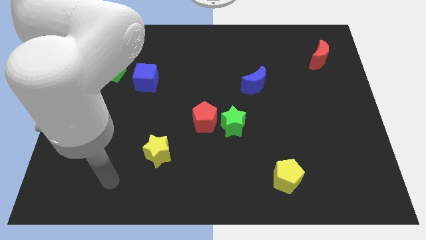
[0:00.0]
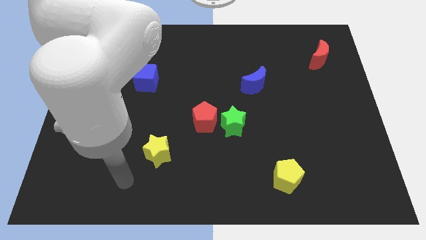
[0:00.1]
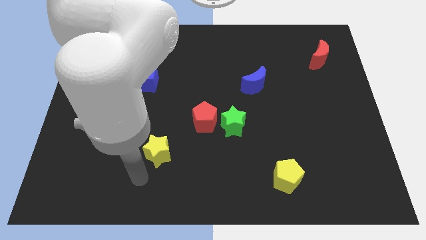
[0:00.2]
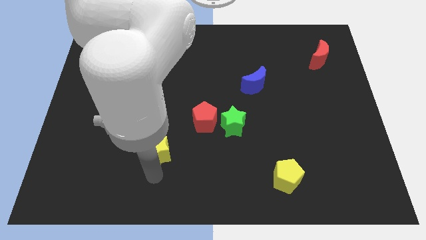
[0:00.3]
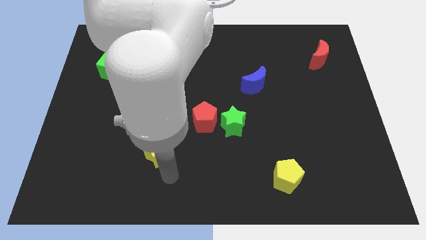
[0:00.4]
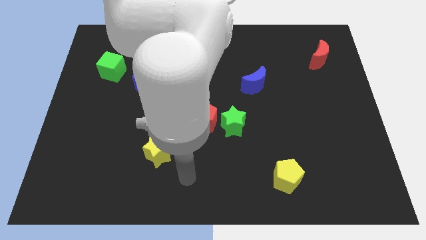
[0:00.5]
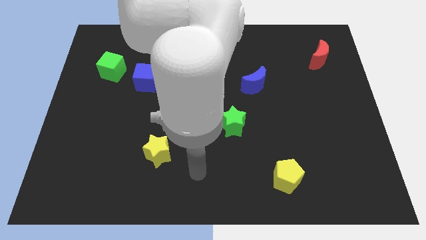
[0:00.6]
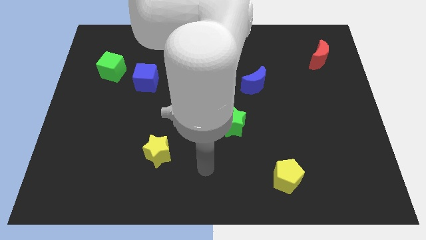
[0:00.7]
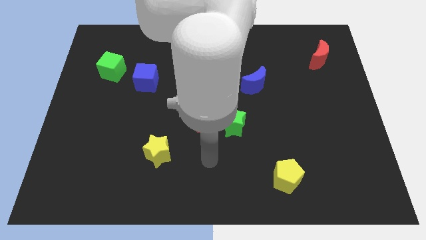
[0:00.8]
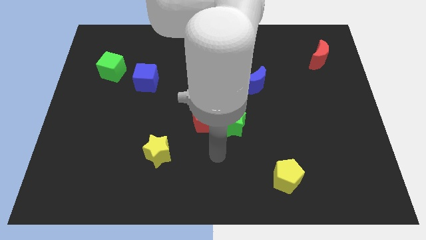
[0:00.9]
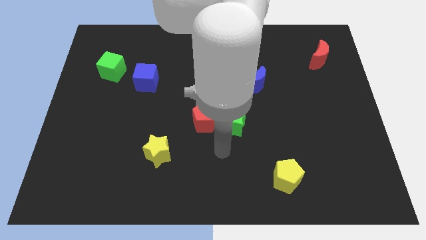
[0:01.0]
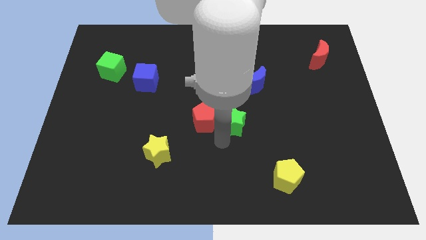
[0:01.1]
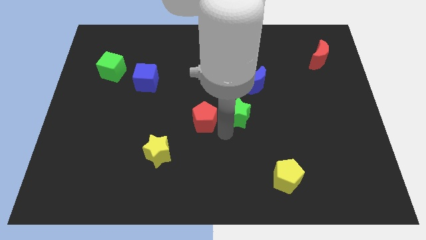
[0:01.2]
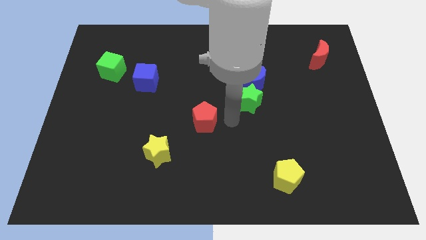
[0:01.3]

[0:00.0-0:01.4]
pull the red pentagon apart from the green star

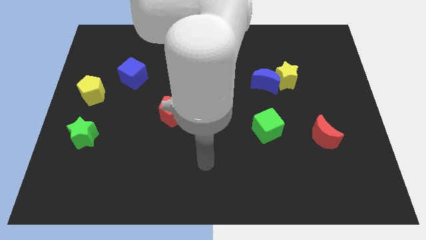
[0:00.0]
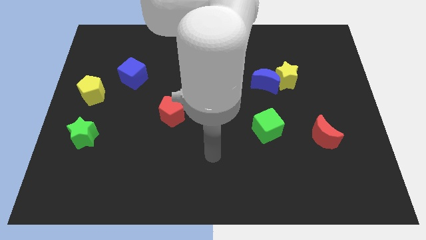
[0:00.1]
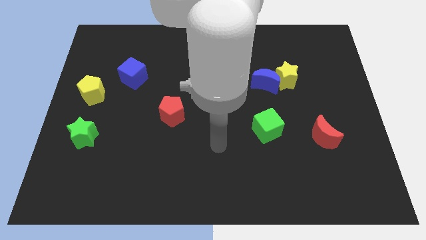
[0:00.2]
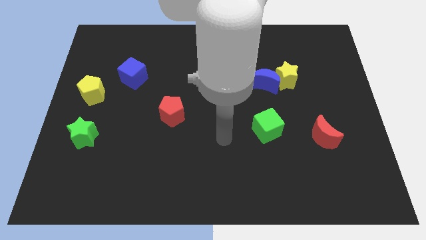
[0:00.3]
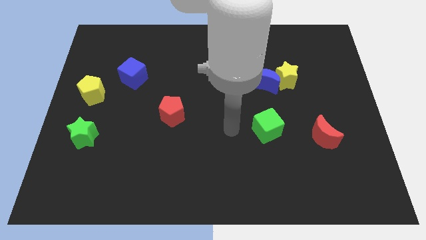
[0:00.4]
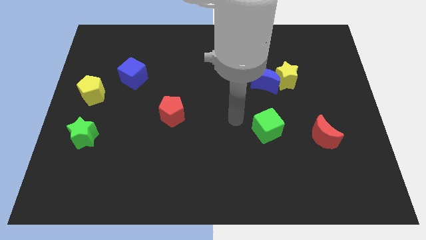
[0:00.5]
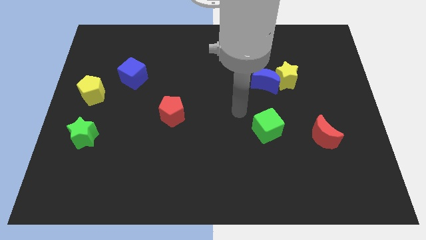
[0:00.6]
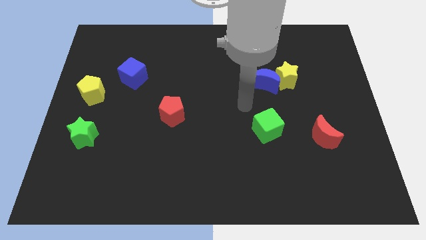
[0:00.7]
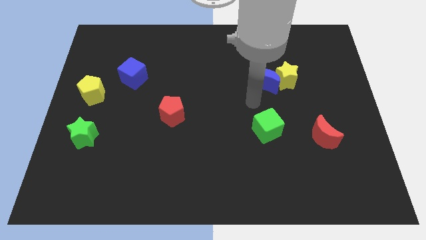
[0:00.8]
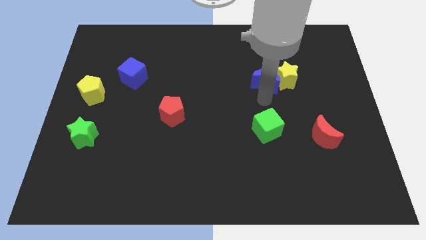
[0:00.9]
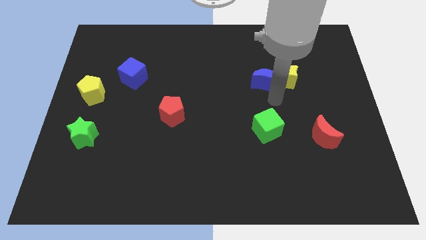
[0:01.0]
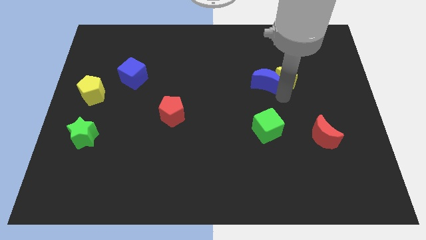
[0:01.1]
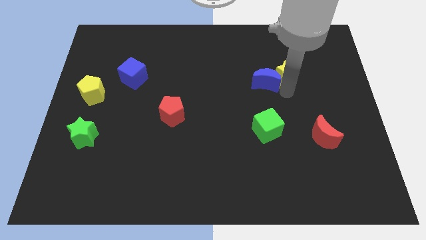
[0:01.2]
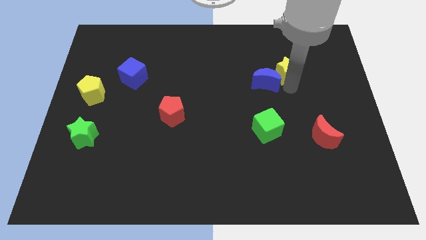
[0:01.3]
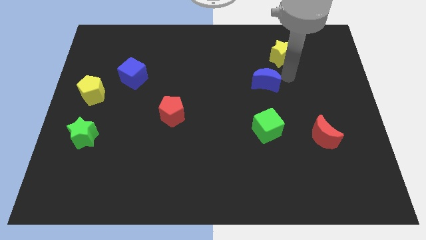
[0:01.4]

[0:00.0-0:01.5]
pull the blue moon apart from the yellow star

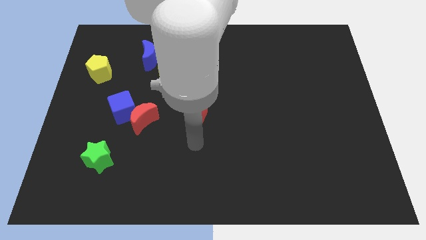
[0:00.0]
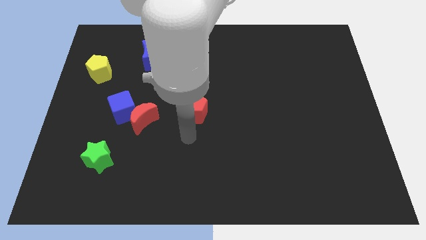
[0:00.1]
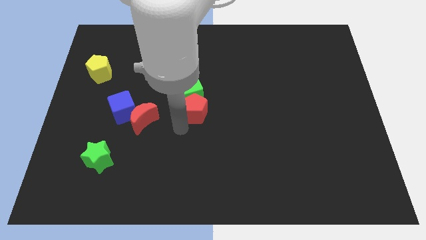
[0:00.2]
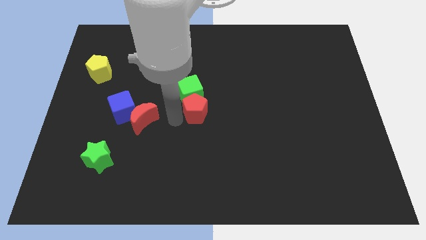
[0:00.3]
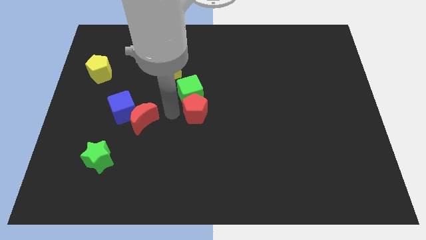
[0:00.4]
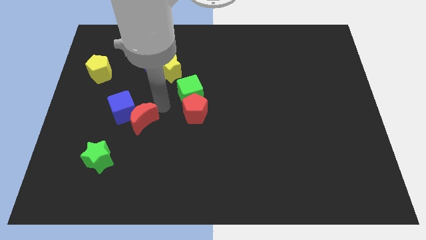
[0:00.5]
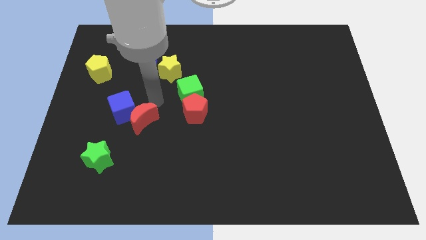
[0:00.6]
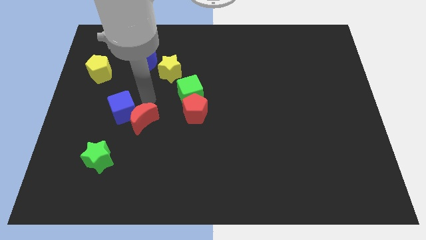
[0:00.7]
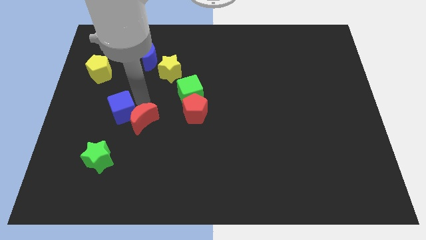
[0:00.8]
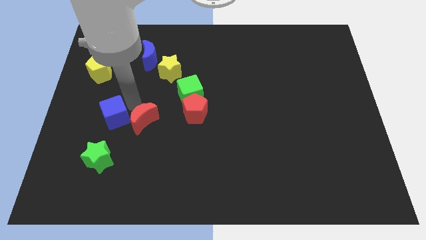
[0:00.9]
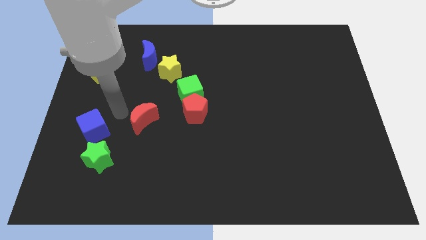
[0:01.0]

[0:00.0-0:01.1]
move the red moon away from the blue cube

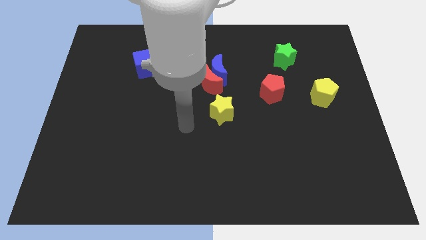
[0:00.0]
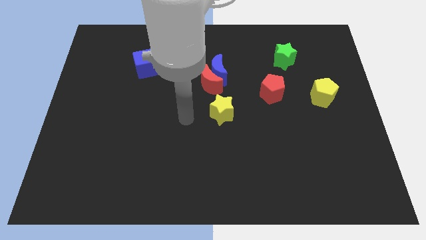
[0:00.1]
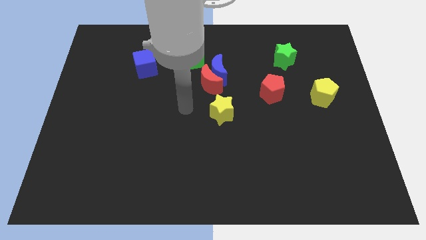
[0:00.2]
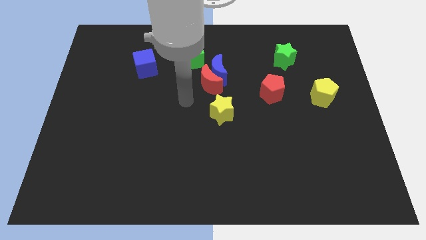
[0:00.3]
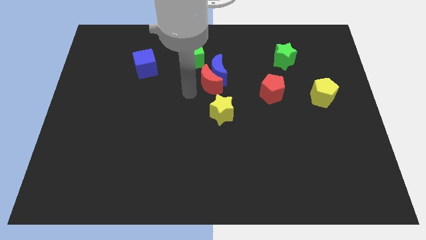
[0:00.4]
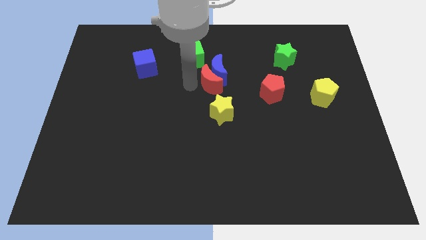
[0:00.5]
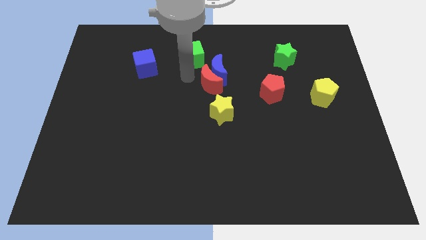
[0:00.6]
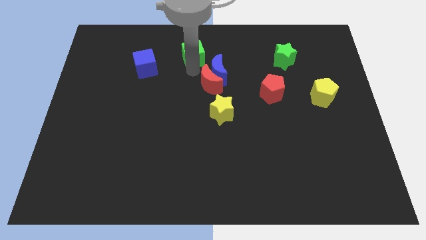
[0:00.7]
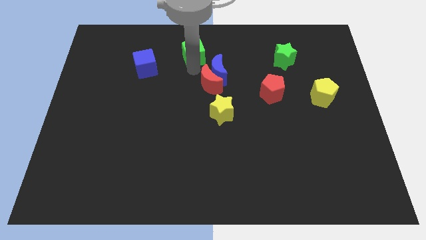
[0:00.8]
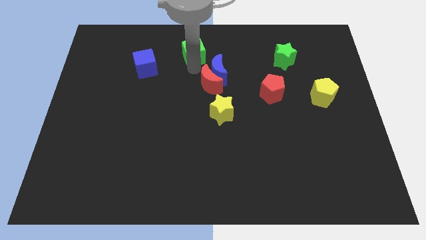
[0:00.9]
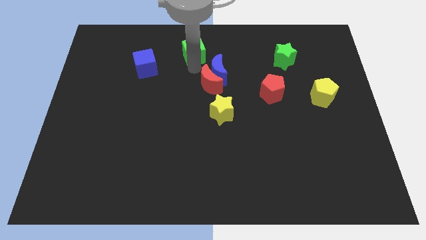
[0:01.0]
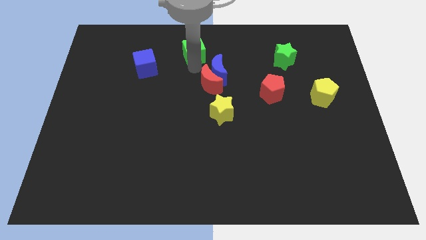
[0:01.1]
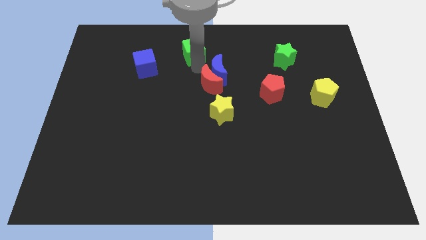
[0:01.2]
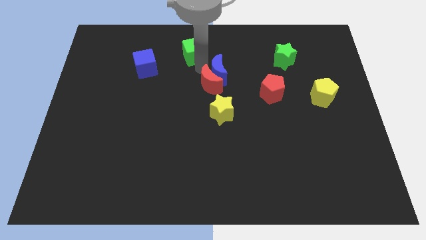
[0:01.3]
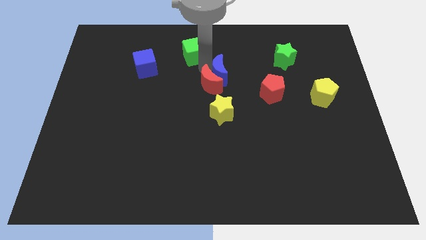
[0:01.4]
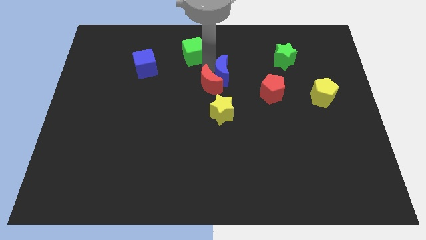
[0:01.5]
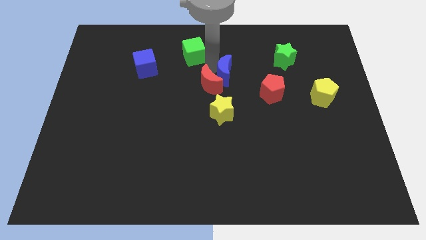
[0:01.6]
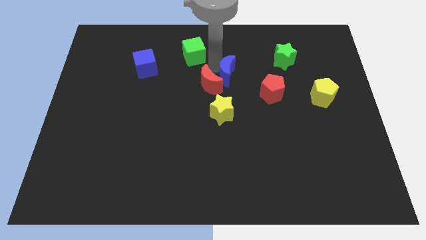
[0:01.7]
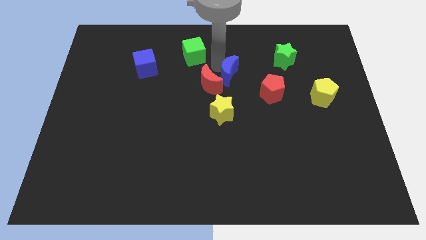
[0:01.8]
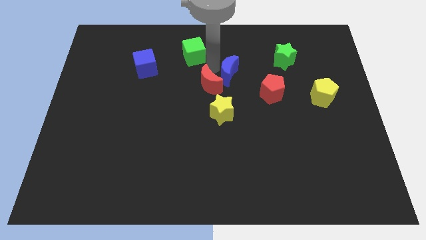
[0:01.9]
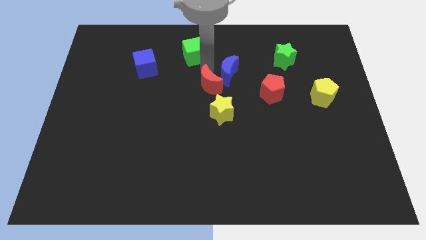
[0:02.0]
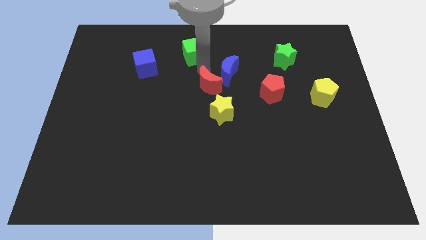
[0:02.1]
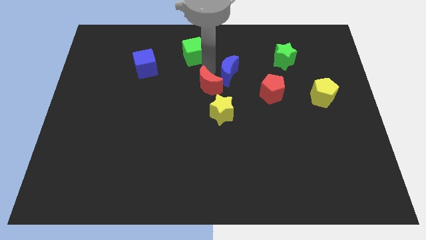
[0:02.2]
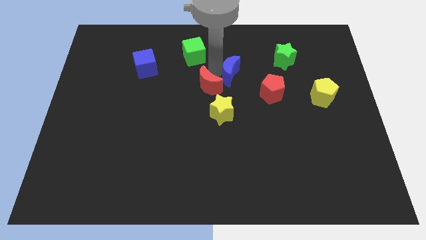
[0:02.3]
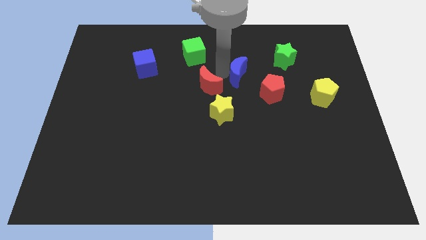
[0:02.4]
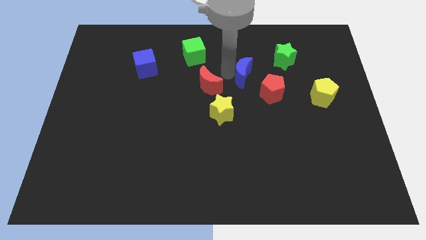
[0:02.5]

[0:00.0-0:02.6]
pull the blue moon apart from the red moon and green cube

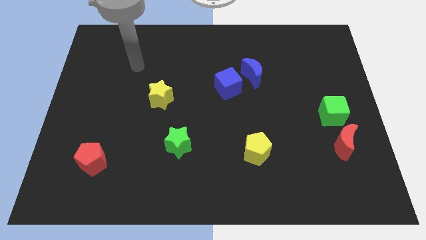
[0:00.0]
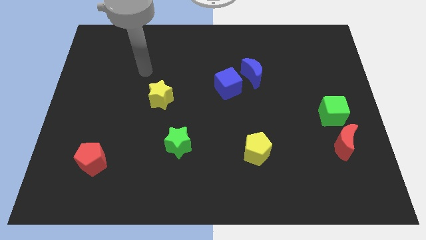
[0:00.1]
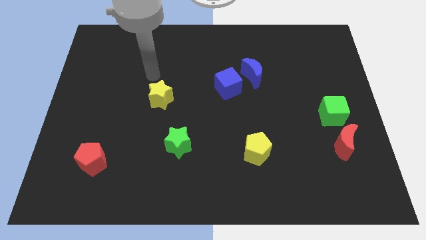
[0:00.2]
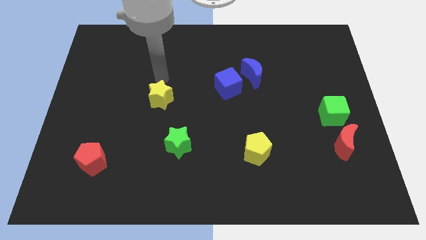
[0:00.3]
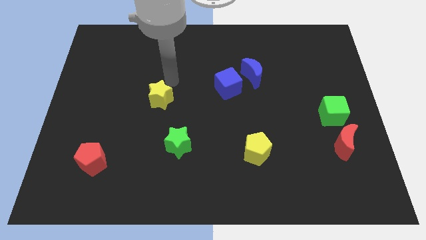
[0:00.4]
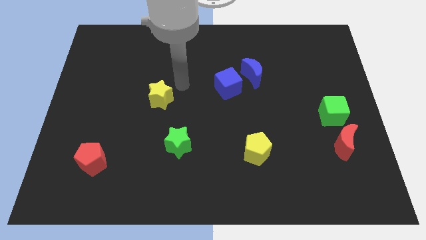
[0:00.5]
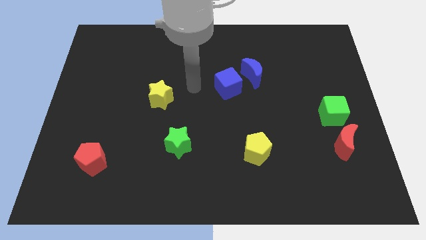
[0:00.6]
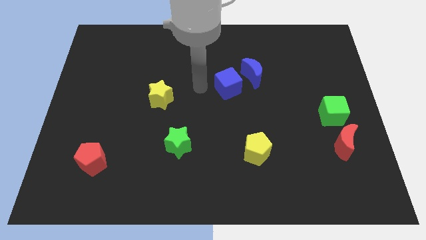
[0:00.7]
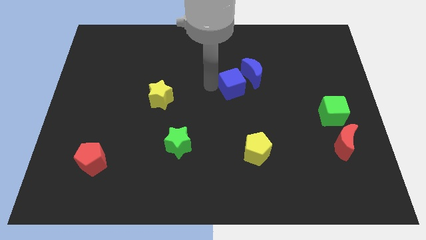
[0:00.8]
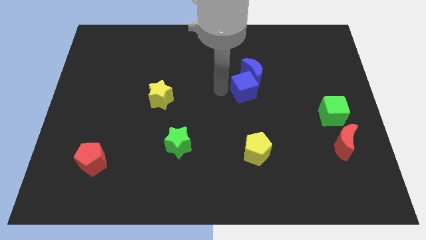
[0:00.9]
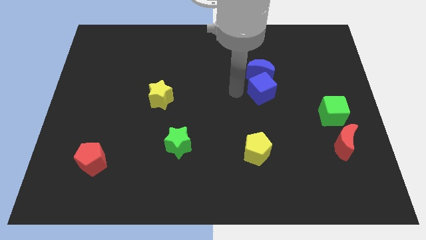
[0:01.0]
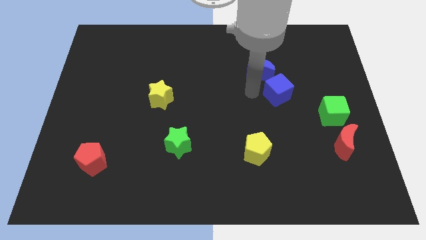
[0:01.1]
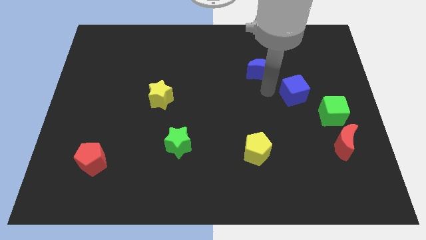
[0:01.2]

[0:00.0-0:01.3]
move the blue moon away from the blue cube

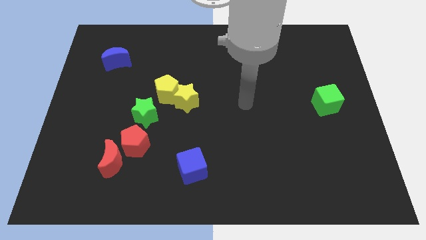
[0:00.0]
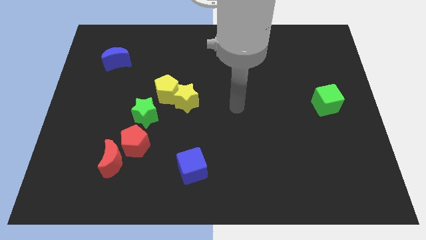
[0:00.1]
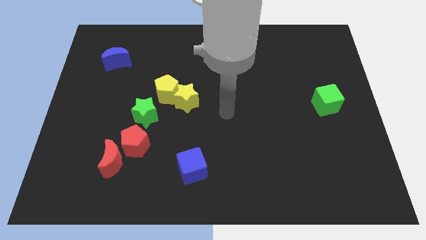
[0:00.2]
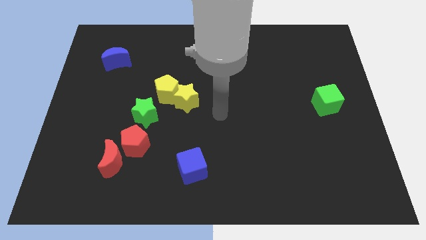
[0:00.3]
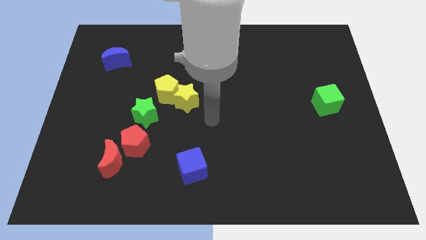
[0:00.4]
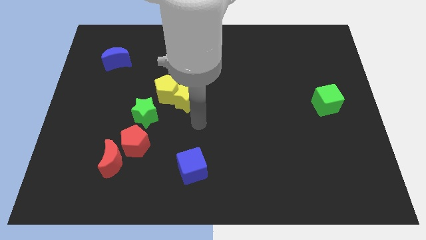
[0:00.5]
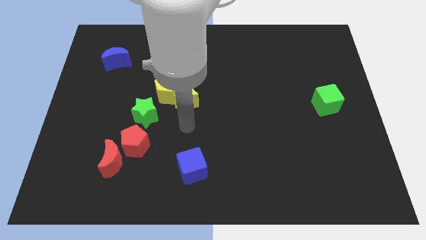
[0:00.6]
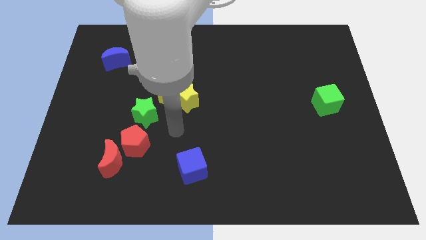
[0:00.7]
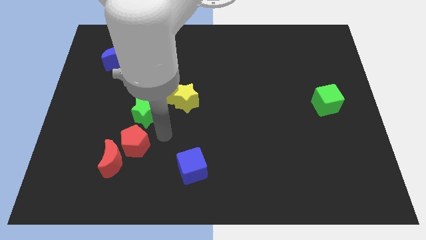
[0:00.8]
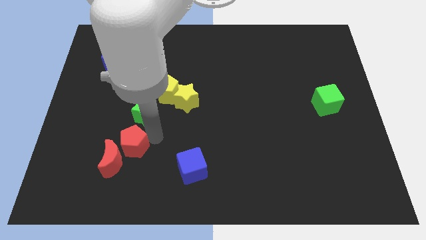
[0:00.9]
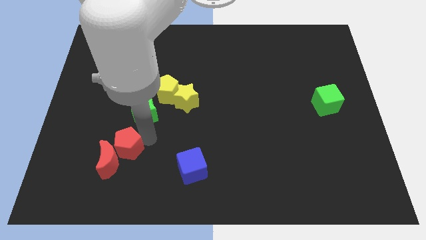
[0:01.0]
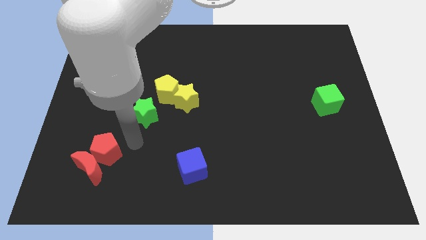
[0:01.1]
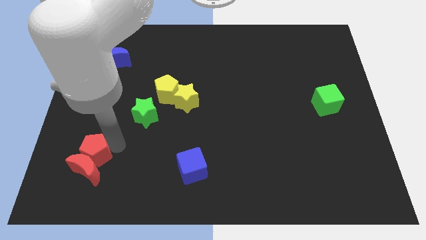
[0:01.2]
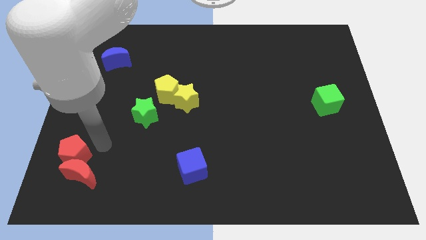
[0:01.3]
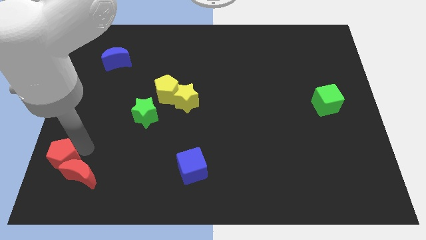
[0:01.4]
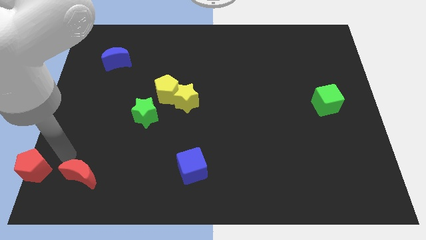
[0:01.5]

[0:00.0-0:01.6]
move the red moon away from the red pentagon
